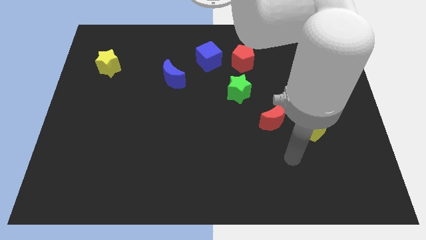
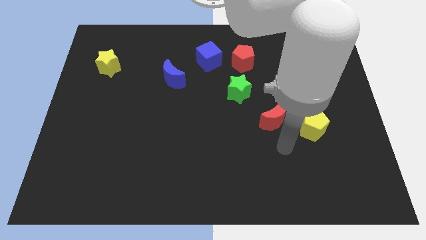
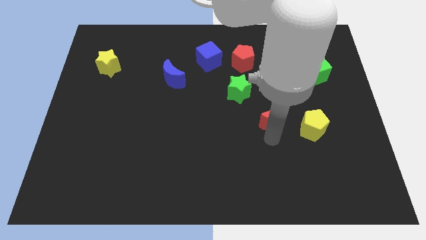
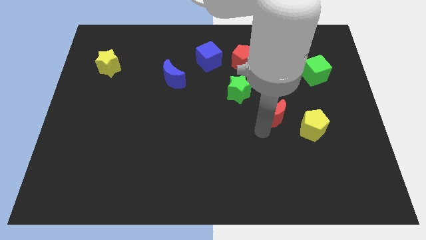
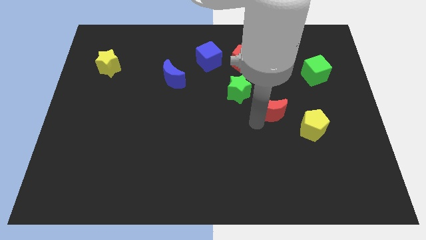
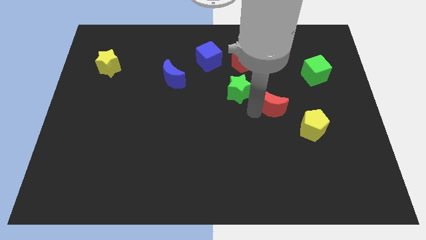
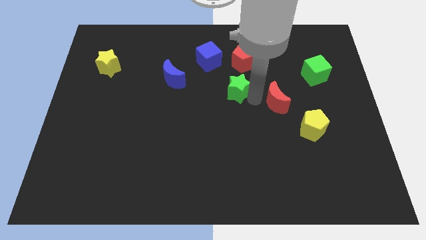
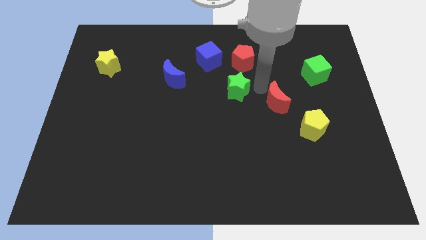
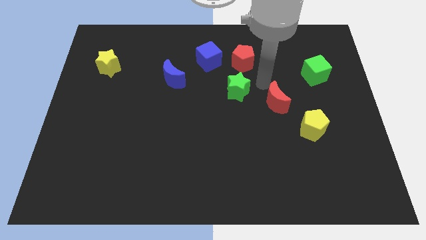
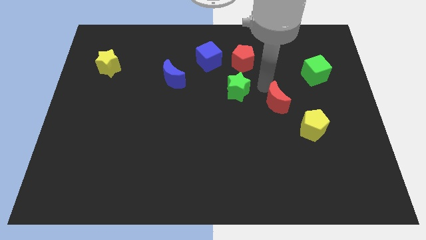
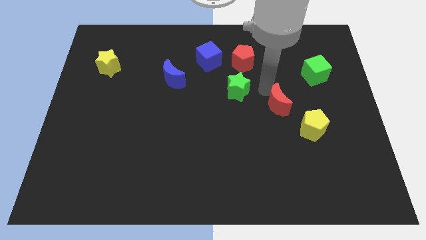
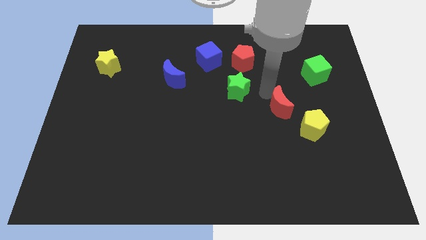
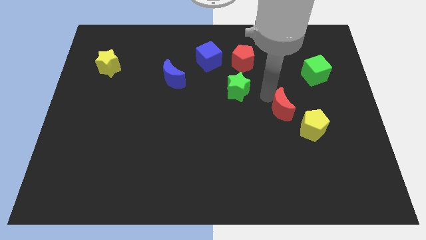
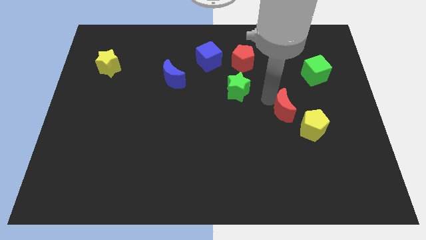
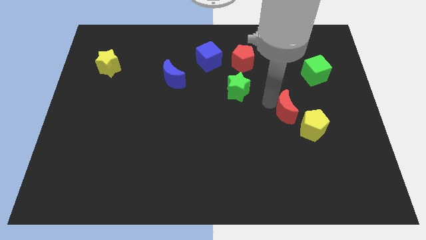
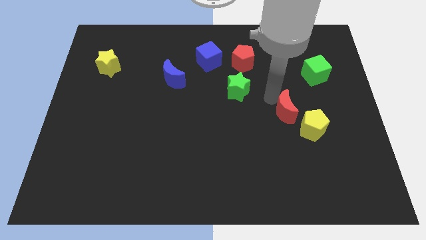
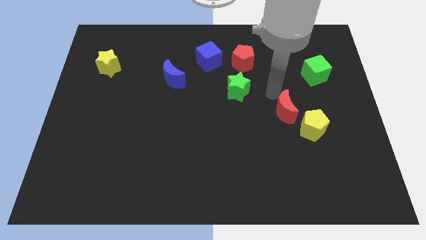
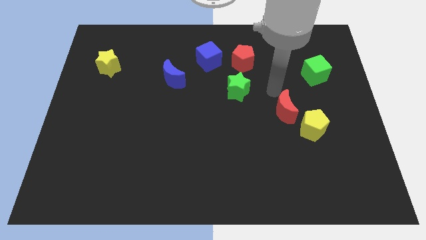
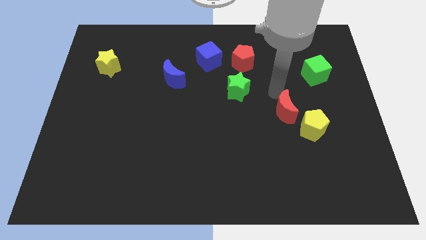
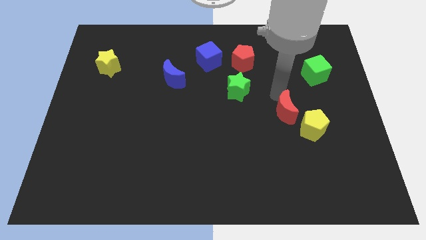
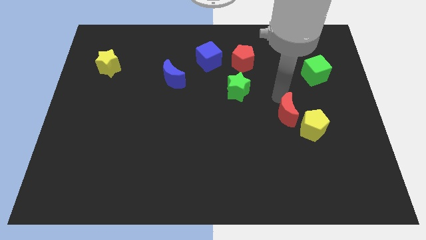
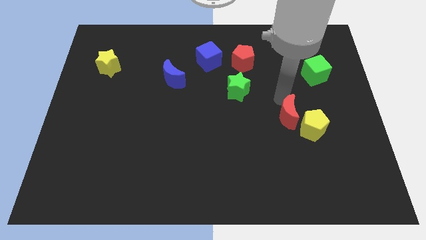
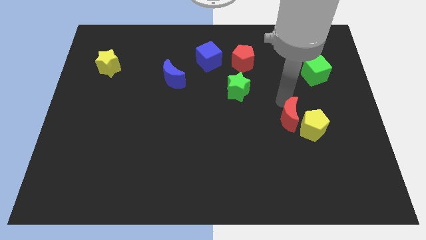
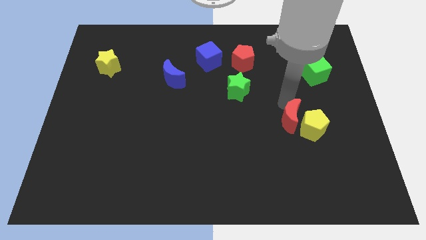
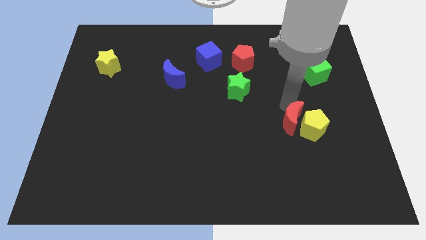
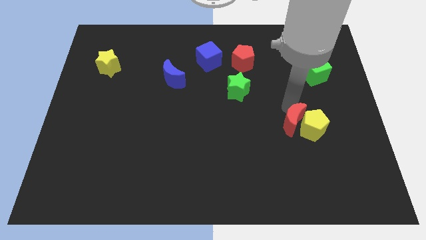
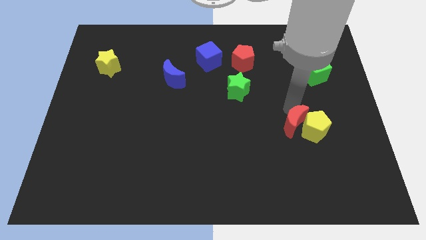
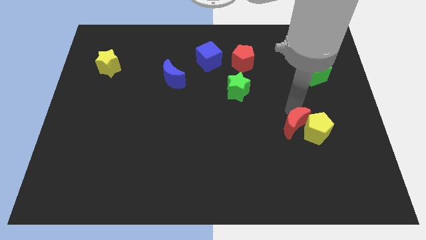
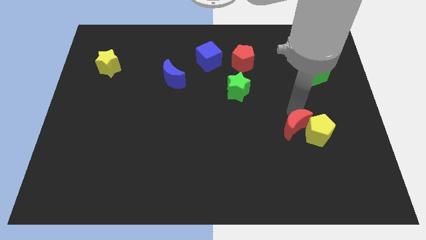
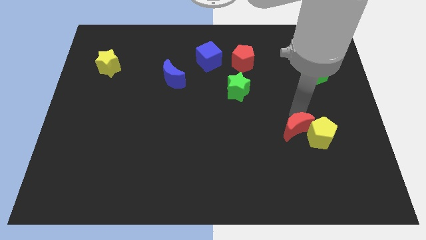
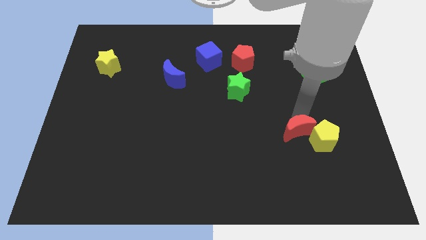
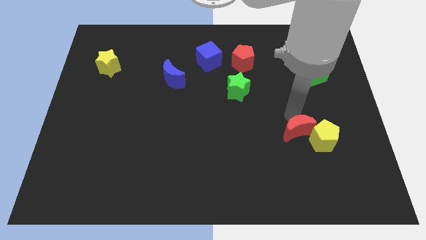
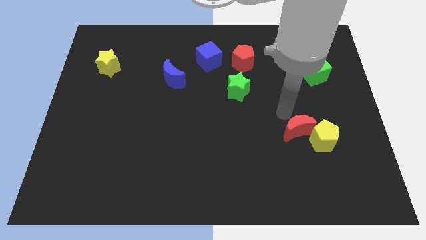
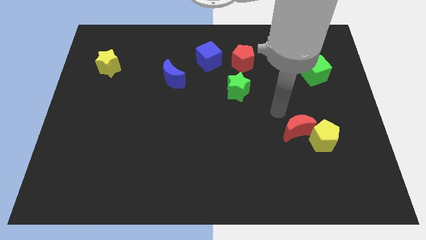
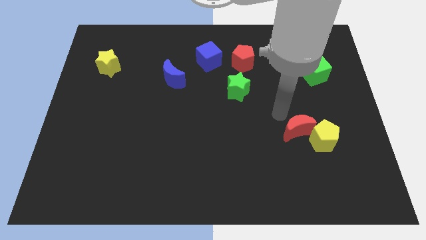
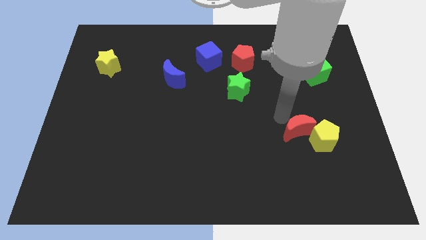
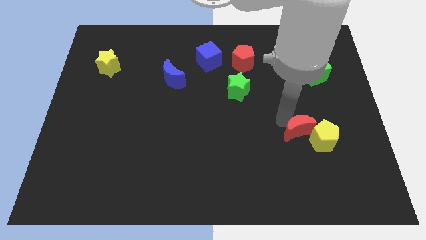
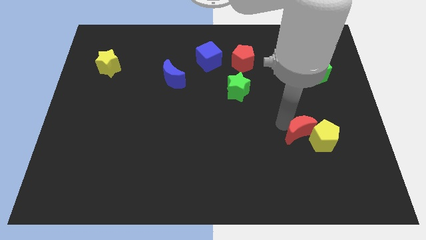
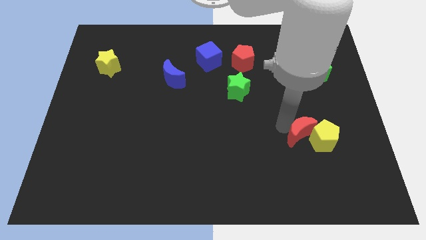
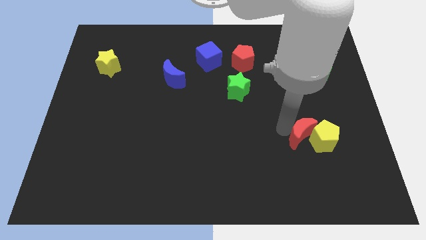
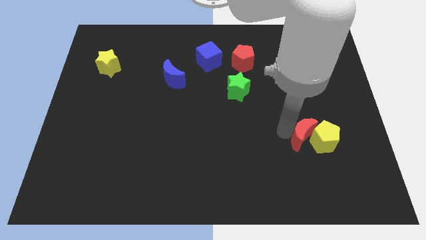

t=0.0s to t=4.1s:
move the red moon diagonally downwards and right a little bit

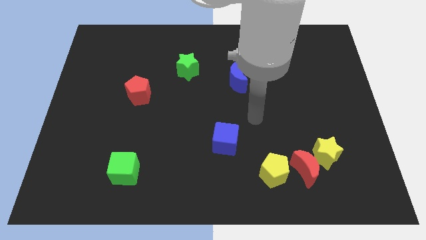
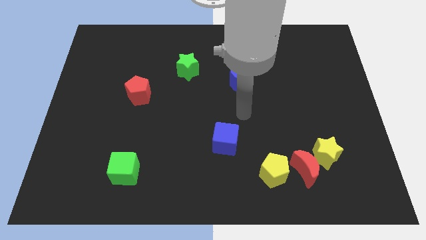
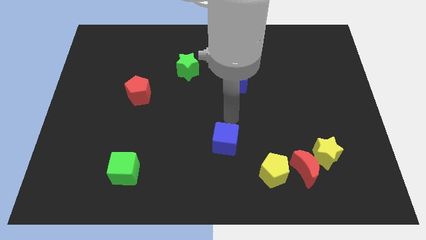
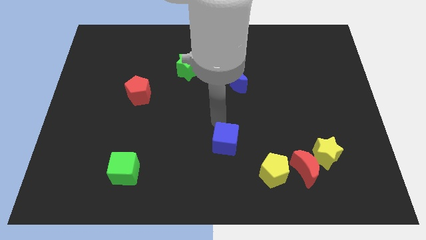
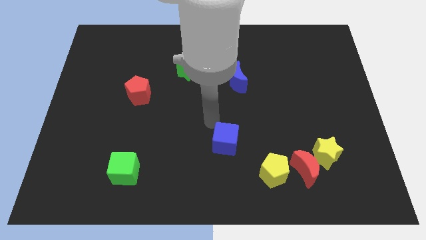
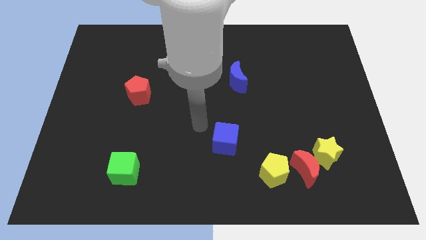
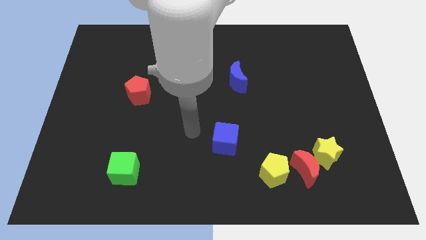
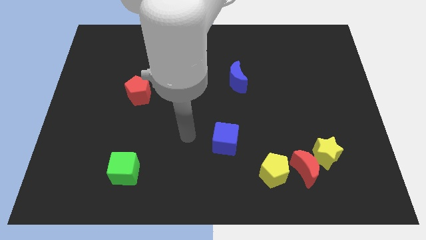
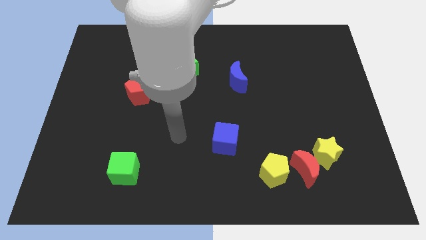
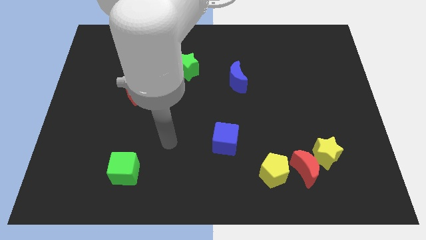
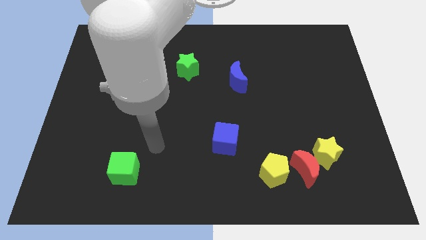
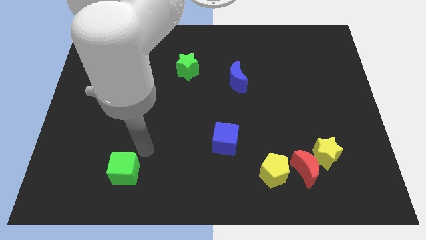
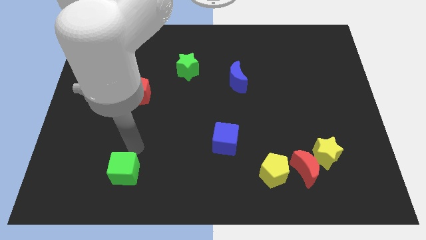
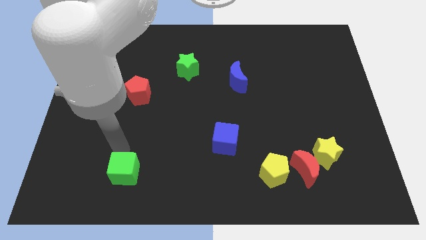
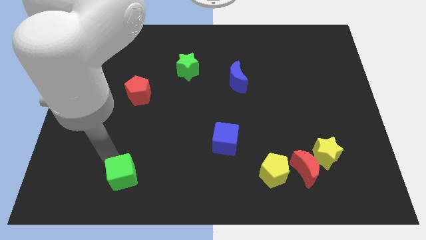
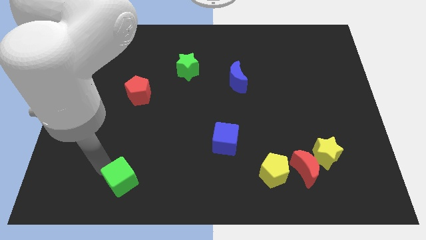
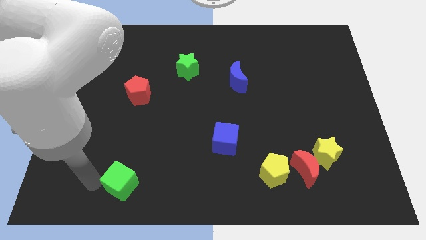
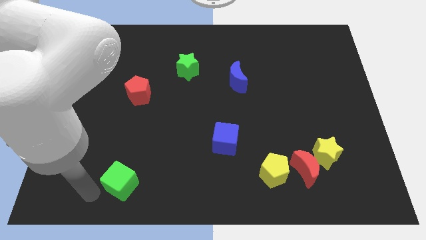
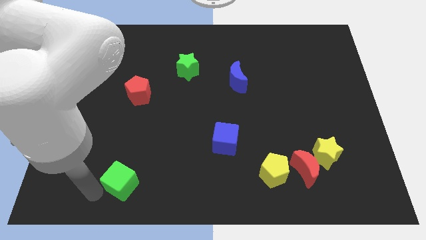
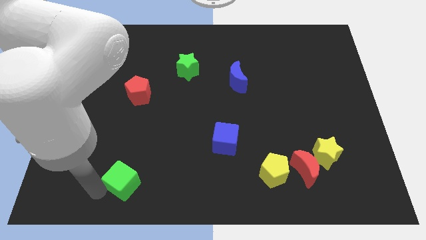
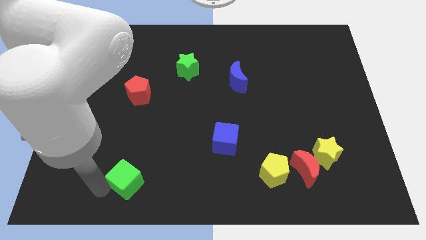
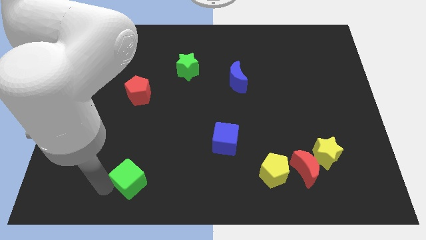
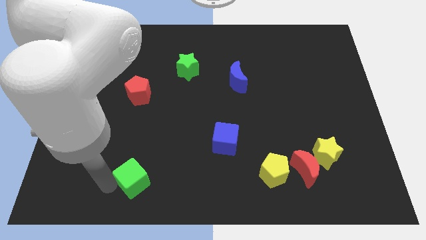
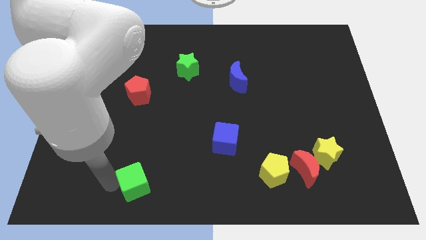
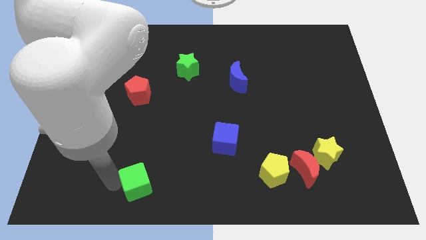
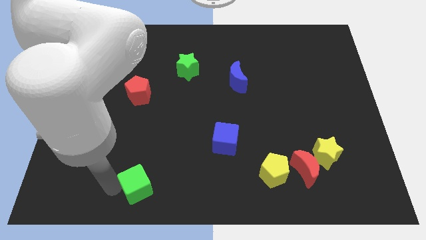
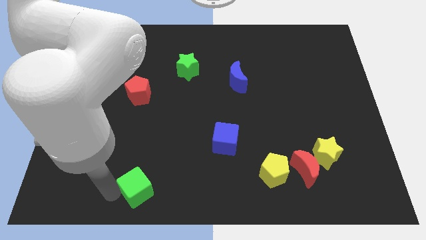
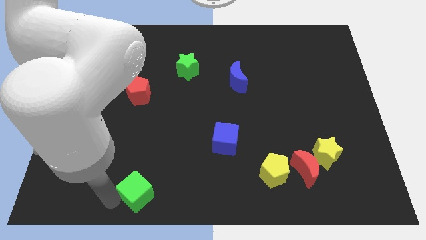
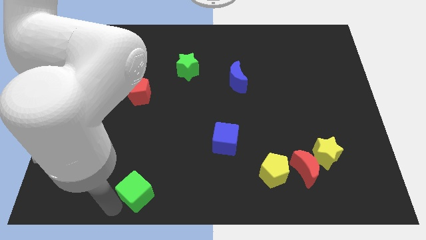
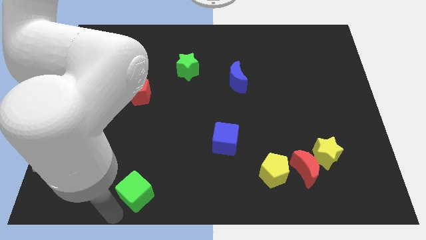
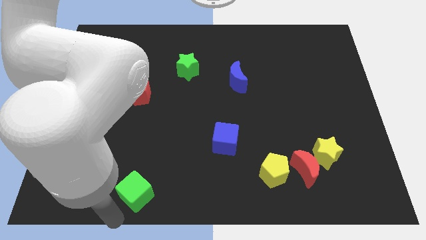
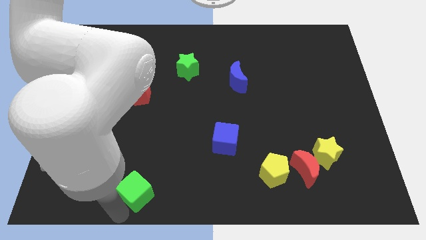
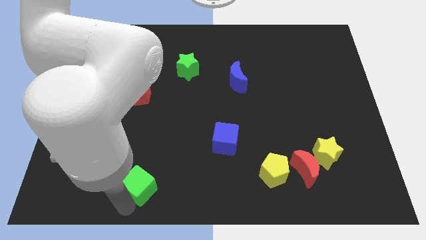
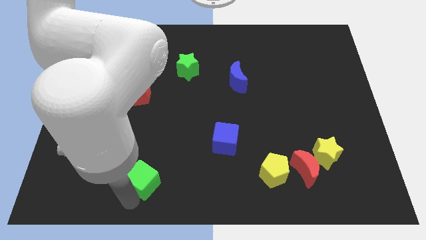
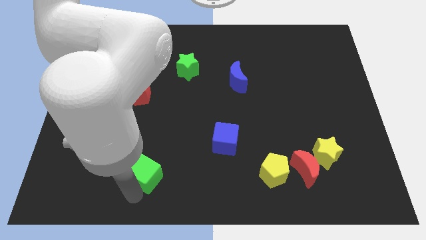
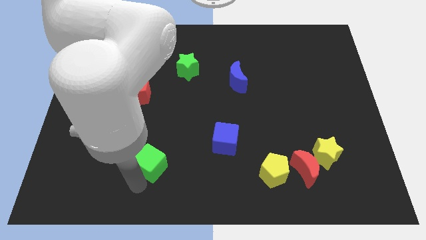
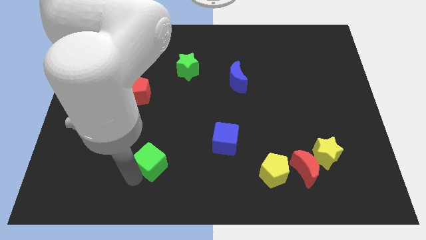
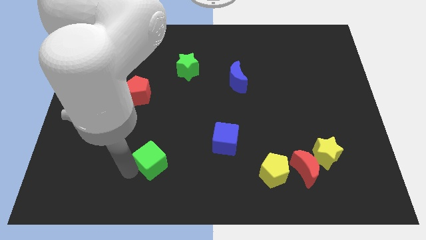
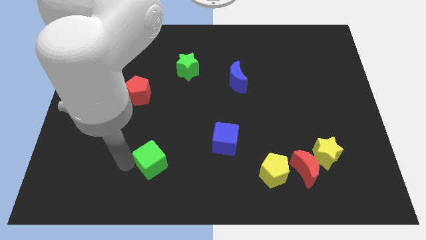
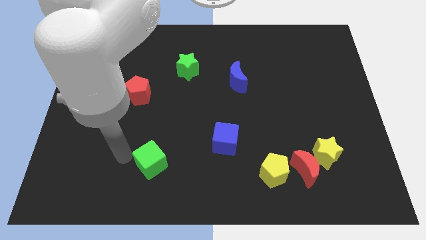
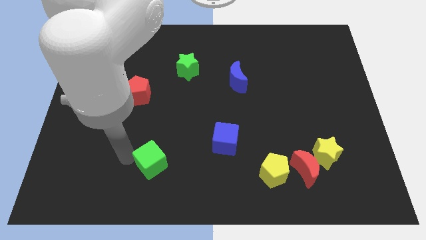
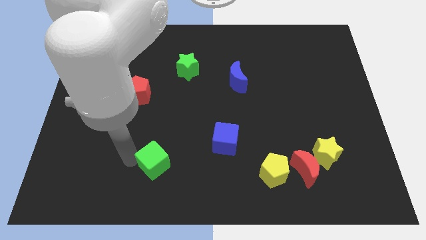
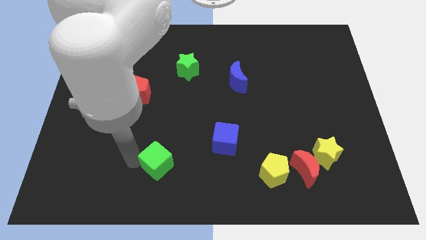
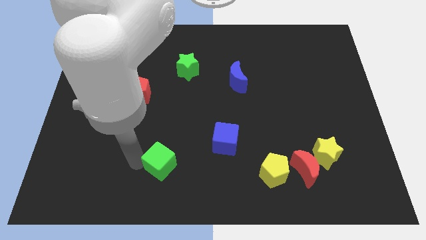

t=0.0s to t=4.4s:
move the green cube somewhat right
